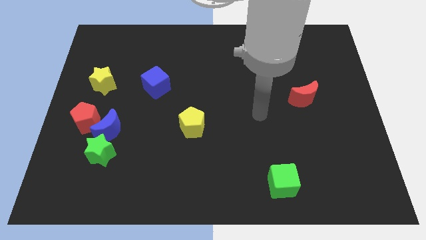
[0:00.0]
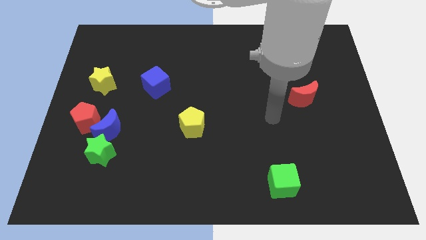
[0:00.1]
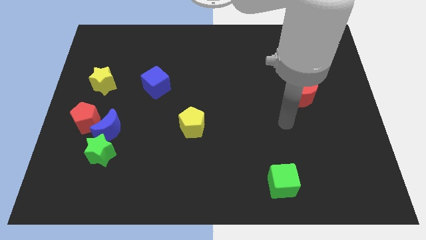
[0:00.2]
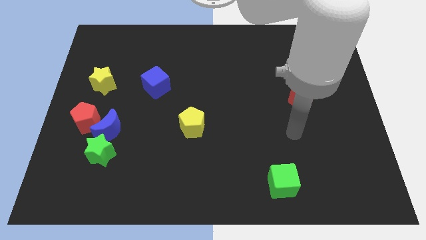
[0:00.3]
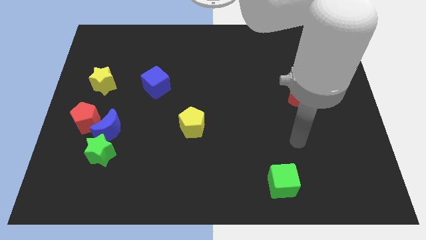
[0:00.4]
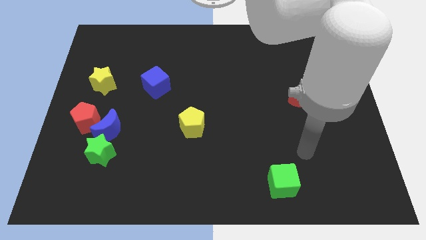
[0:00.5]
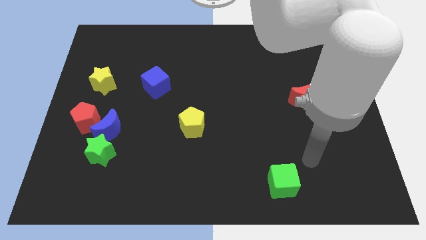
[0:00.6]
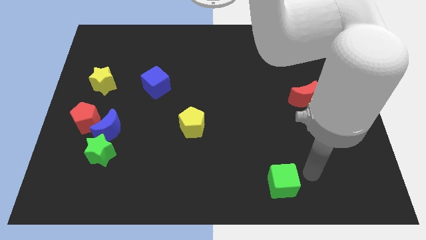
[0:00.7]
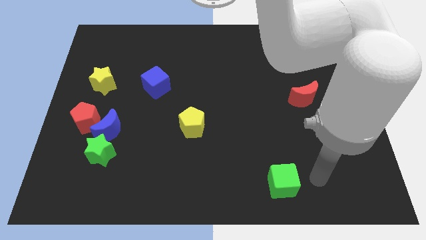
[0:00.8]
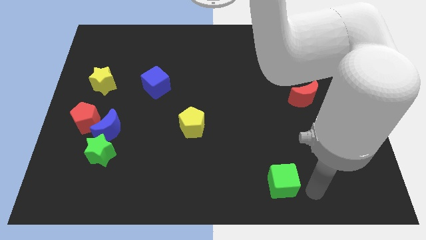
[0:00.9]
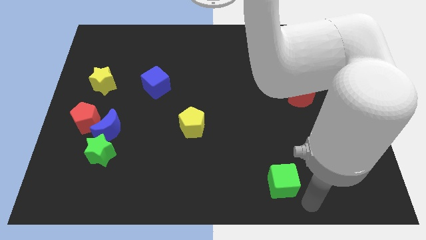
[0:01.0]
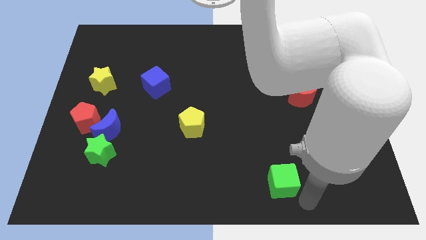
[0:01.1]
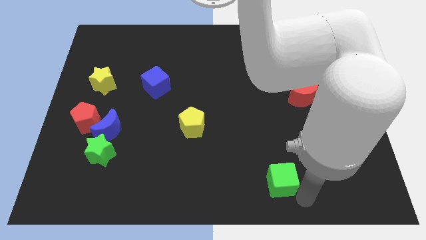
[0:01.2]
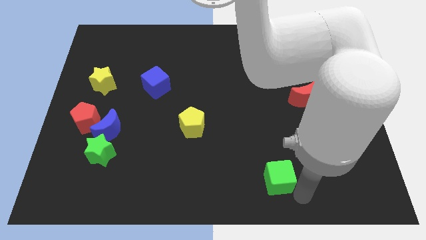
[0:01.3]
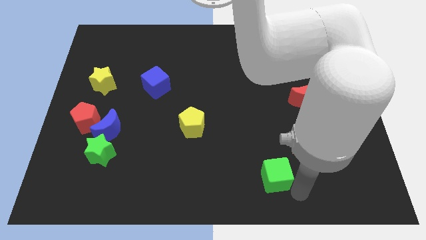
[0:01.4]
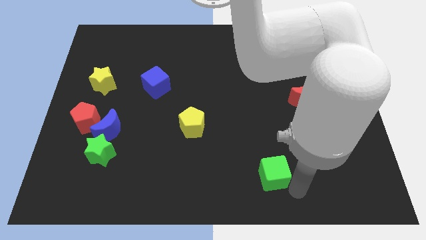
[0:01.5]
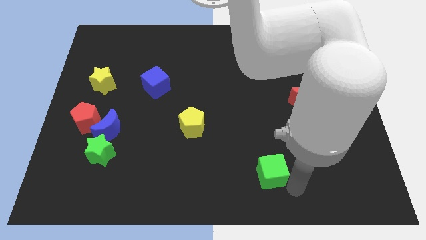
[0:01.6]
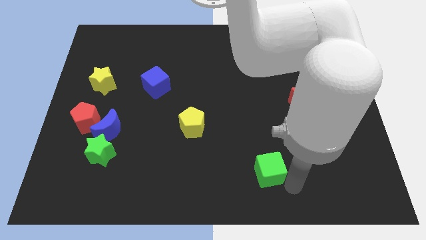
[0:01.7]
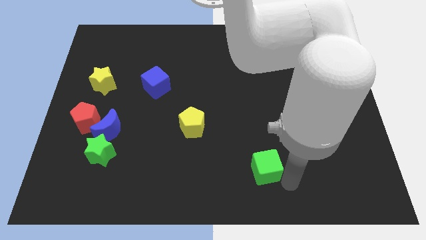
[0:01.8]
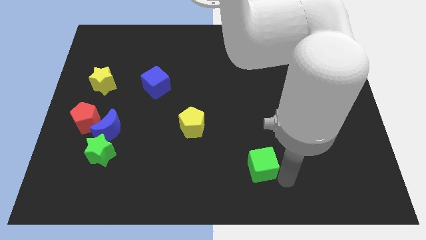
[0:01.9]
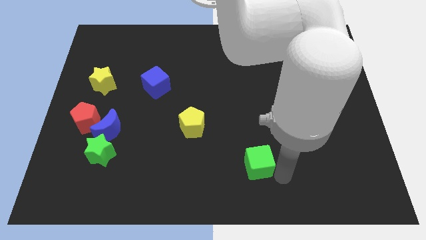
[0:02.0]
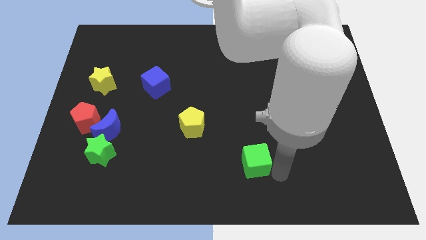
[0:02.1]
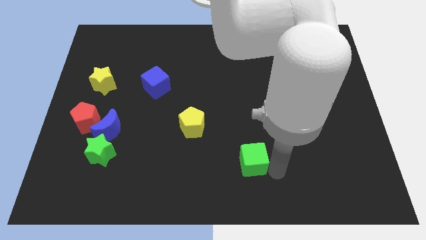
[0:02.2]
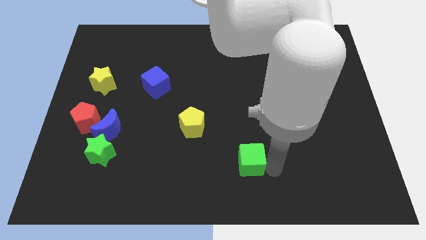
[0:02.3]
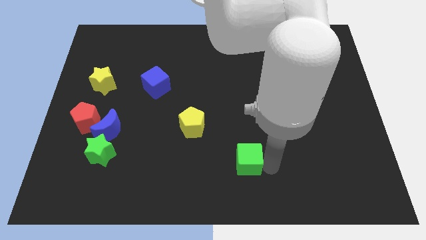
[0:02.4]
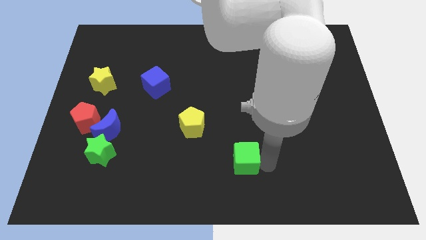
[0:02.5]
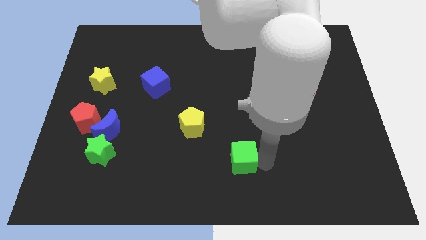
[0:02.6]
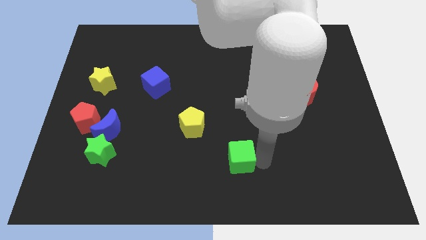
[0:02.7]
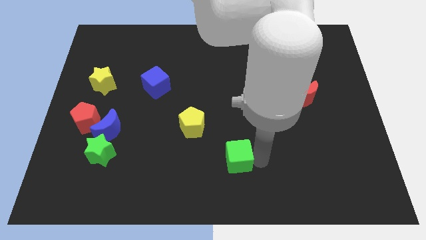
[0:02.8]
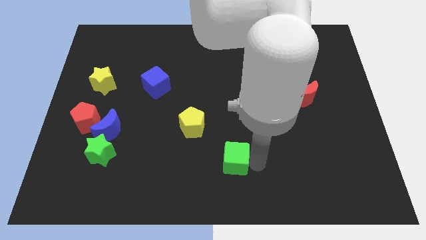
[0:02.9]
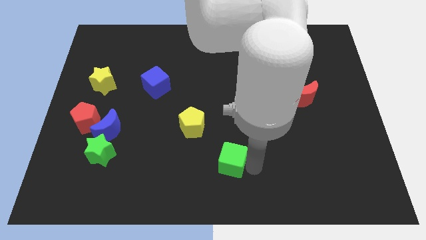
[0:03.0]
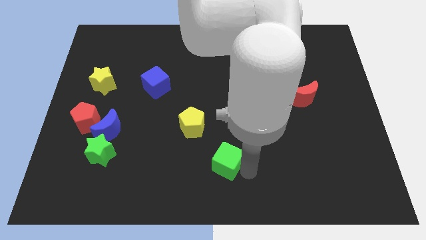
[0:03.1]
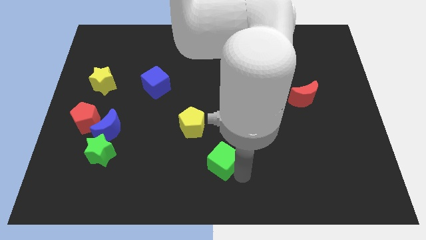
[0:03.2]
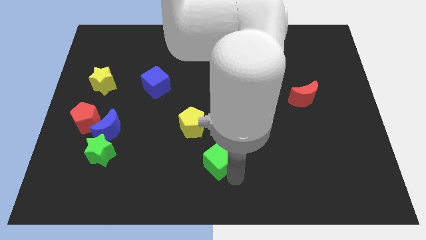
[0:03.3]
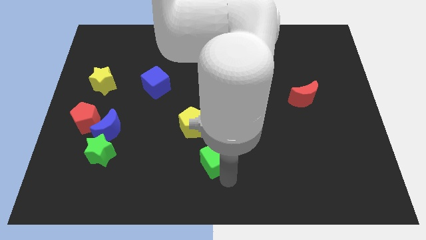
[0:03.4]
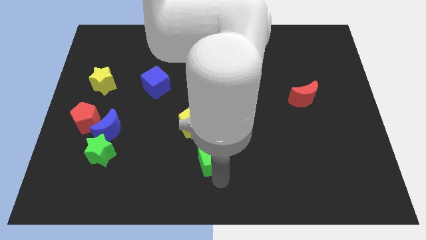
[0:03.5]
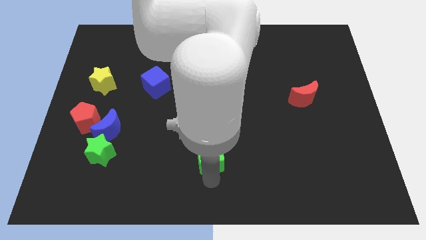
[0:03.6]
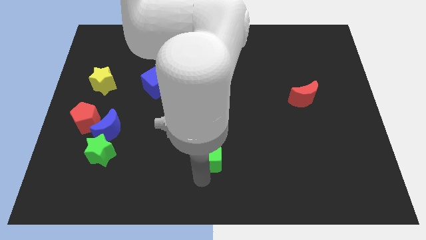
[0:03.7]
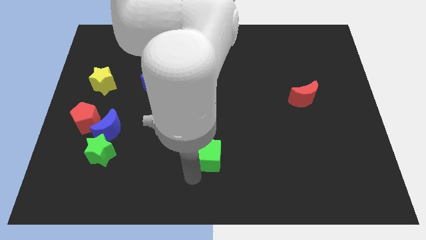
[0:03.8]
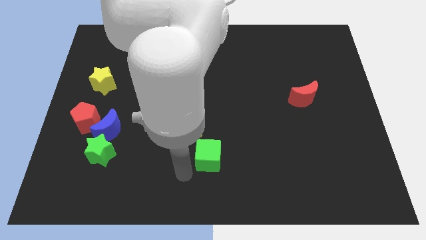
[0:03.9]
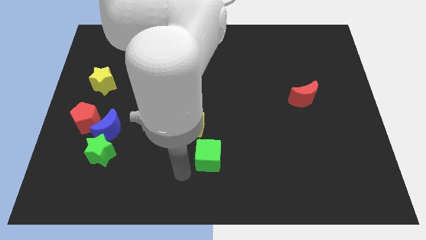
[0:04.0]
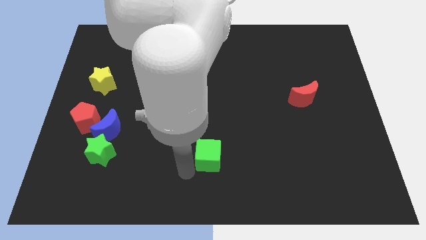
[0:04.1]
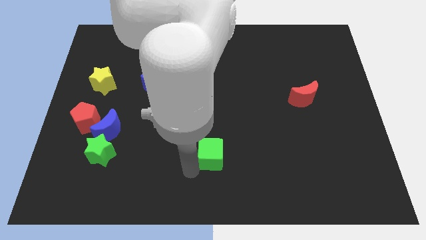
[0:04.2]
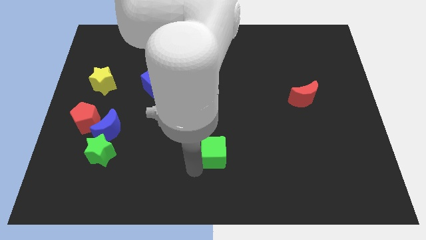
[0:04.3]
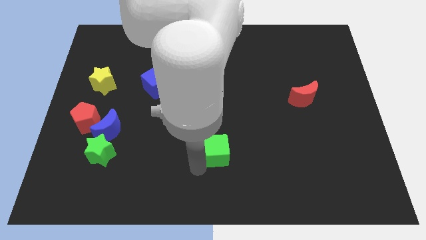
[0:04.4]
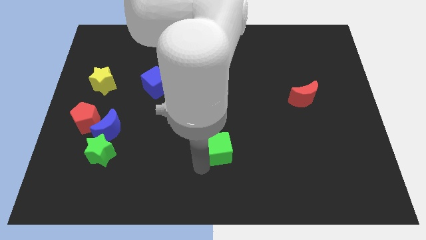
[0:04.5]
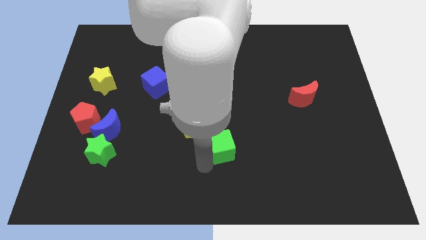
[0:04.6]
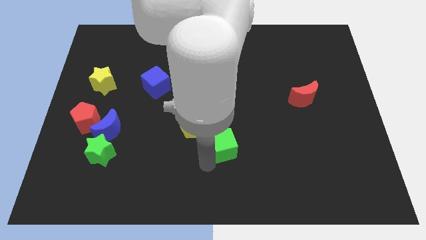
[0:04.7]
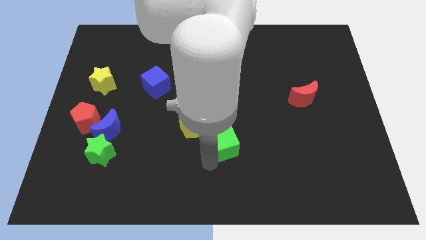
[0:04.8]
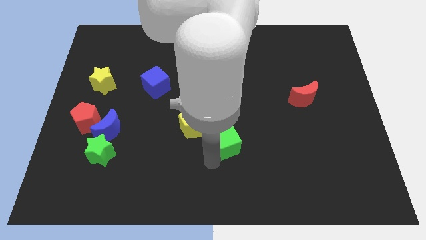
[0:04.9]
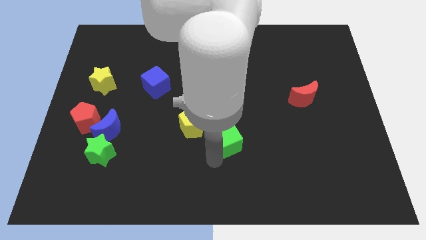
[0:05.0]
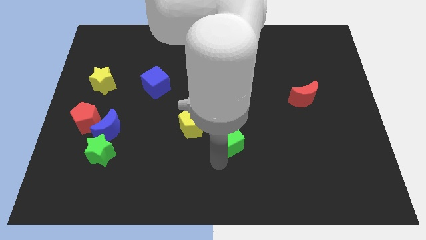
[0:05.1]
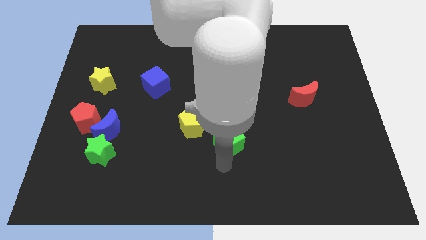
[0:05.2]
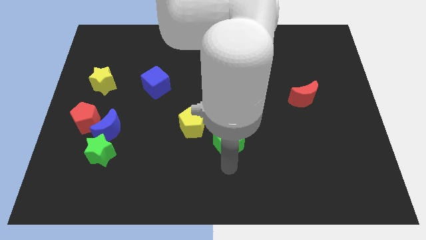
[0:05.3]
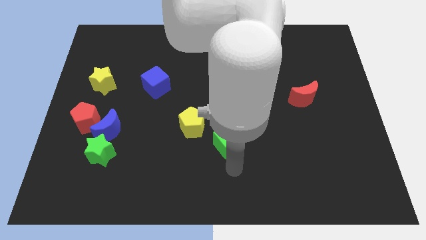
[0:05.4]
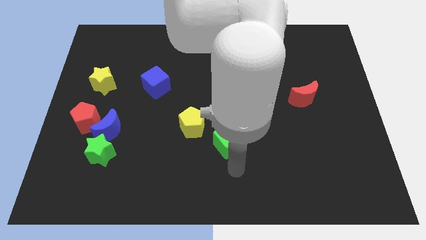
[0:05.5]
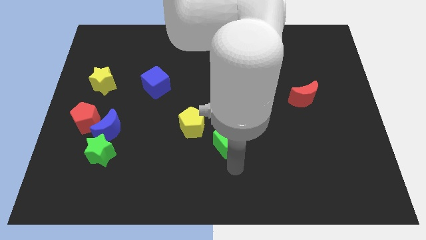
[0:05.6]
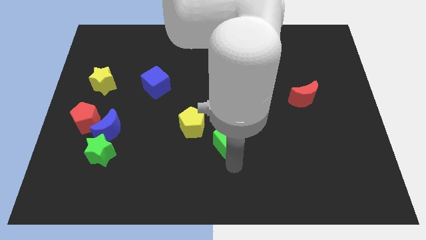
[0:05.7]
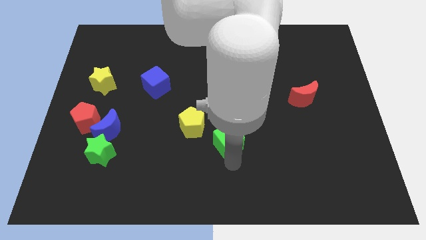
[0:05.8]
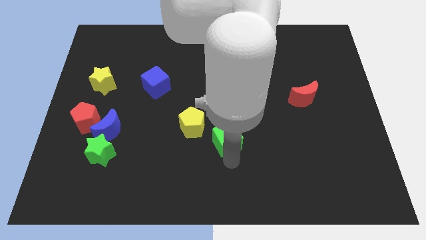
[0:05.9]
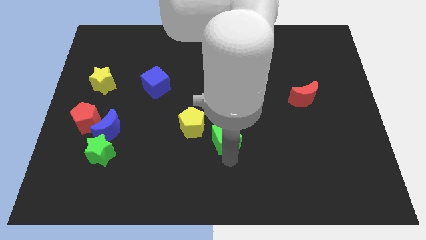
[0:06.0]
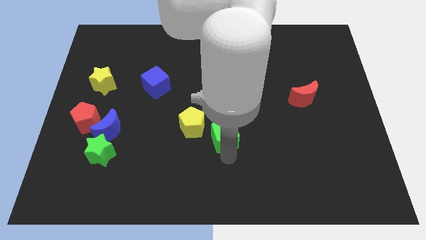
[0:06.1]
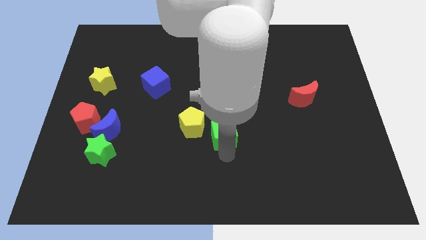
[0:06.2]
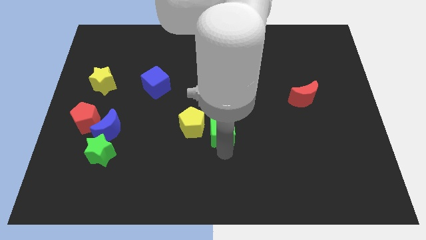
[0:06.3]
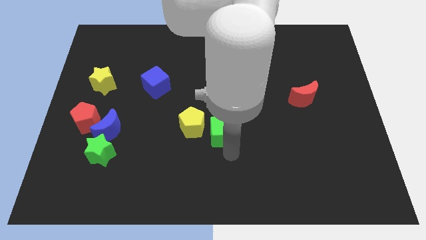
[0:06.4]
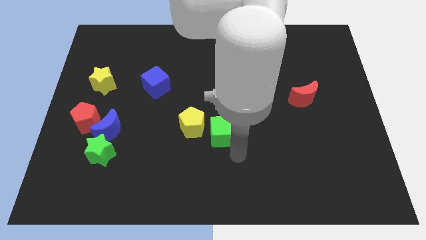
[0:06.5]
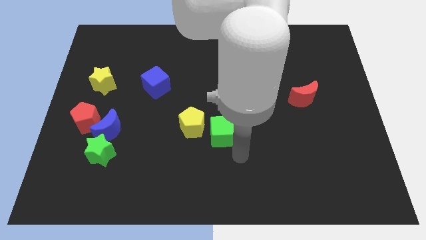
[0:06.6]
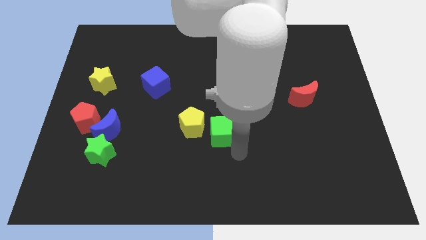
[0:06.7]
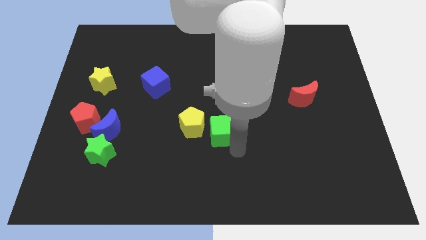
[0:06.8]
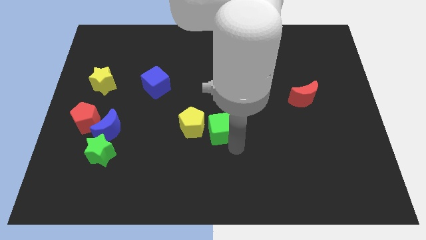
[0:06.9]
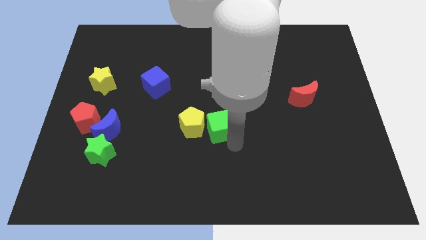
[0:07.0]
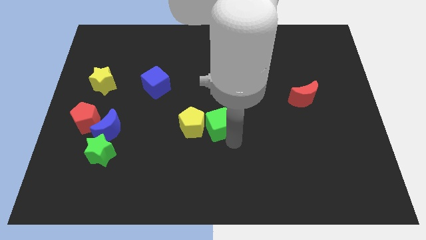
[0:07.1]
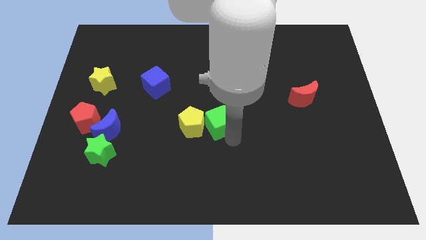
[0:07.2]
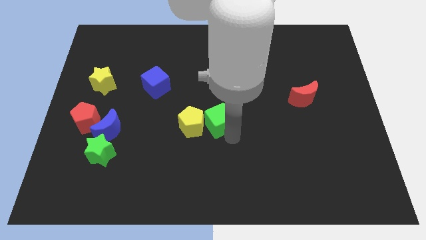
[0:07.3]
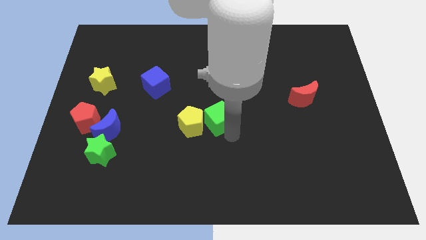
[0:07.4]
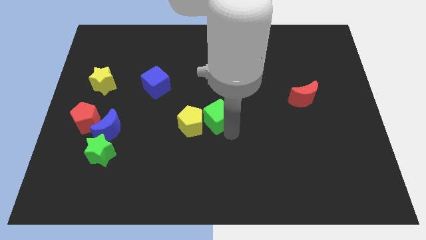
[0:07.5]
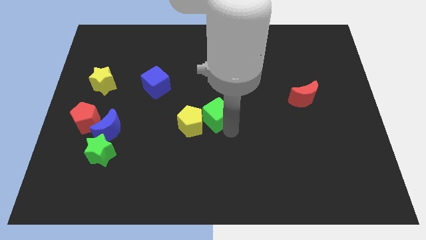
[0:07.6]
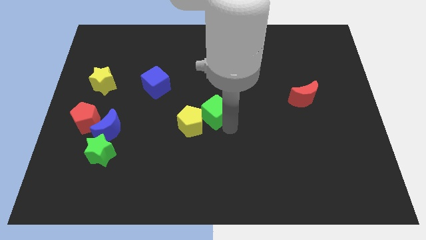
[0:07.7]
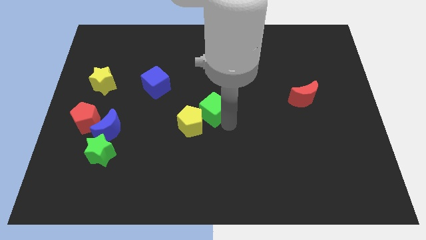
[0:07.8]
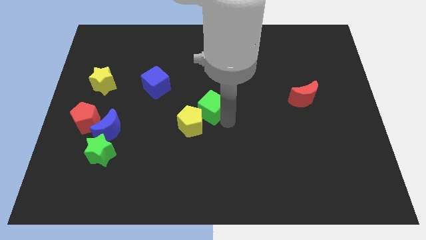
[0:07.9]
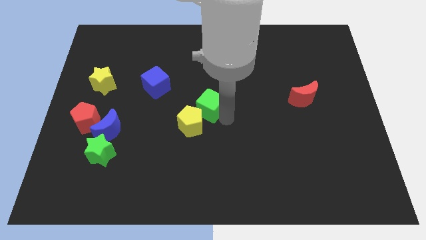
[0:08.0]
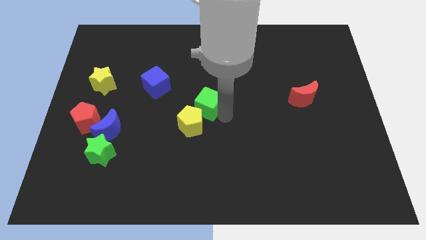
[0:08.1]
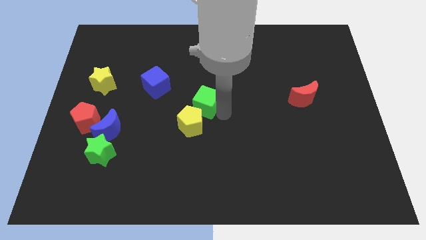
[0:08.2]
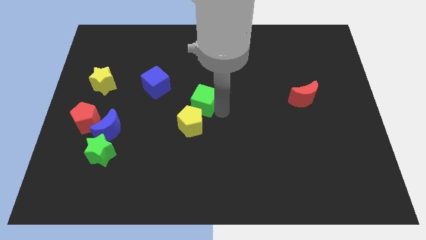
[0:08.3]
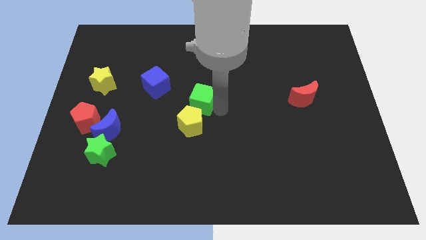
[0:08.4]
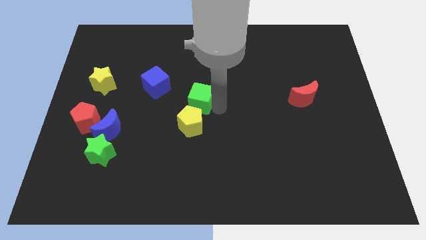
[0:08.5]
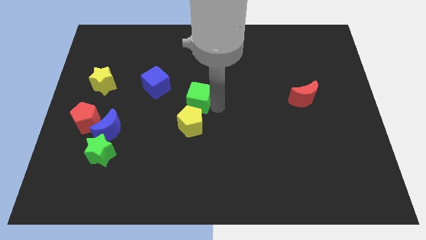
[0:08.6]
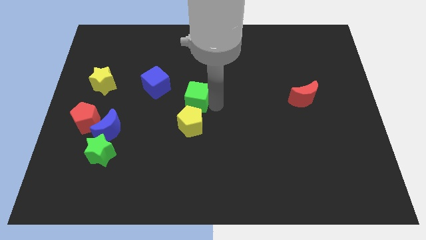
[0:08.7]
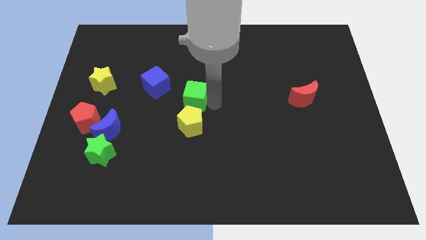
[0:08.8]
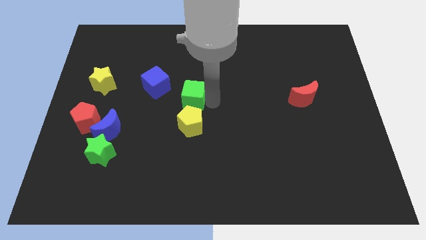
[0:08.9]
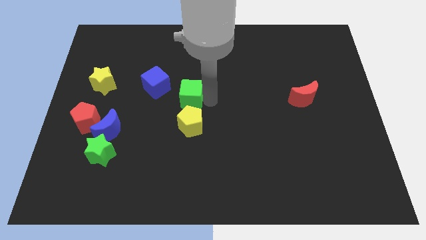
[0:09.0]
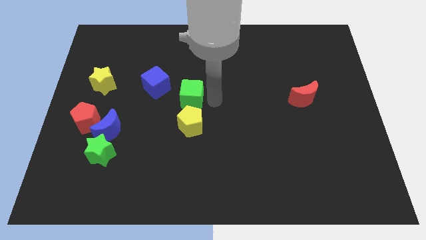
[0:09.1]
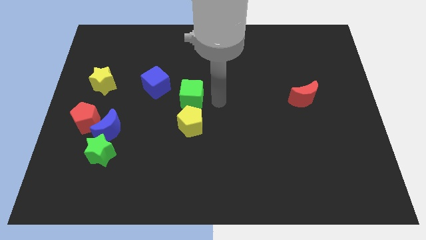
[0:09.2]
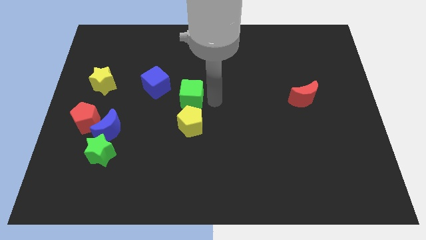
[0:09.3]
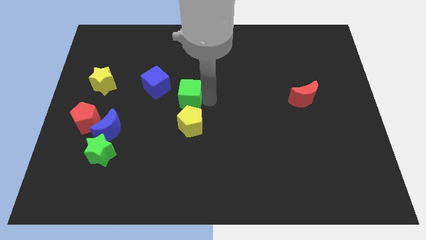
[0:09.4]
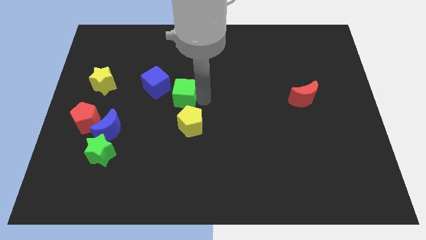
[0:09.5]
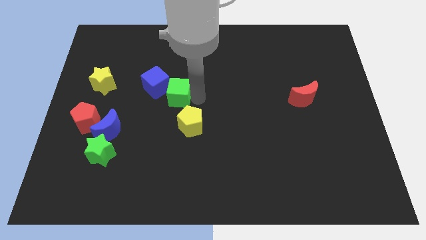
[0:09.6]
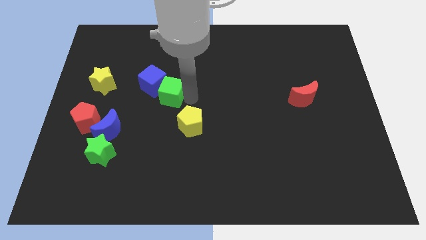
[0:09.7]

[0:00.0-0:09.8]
slide the green cube towards the blue cube
